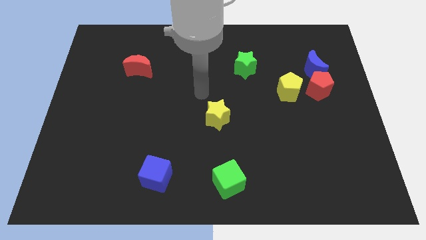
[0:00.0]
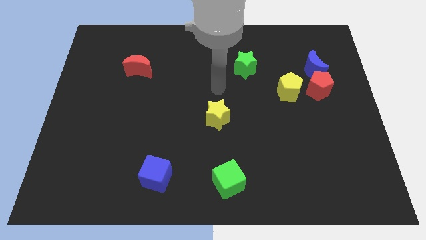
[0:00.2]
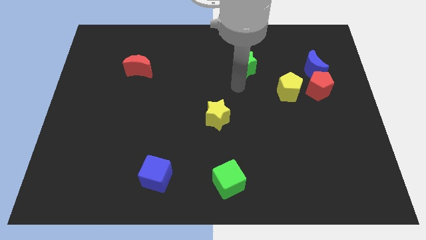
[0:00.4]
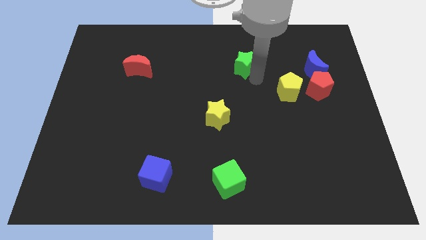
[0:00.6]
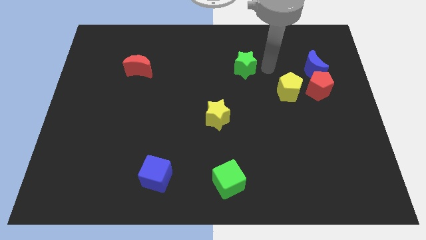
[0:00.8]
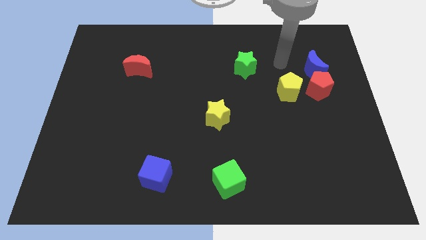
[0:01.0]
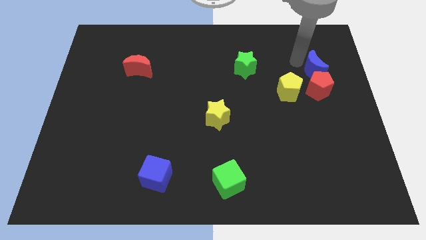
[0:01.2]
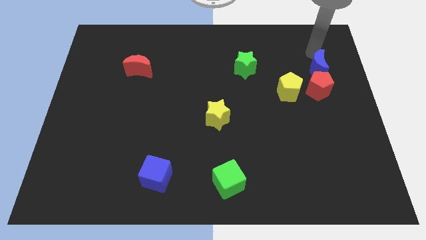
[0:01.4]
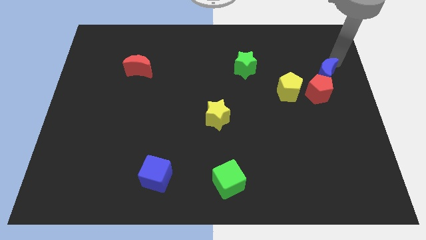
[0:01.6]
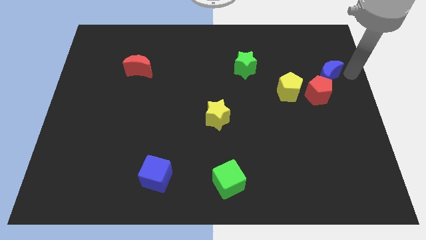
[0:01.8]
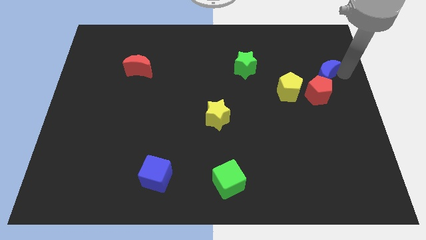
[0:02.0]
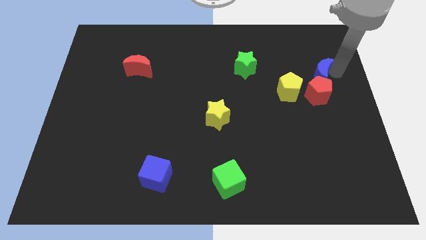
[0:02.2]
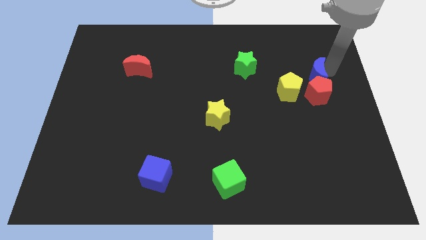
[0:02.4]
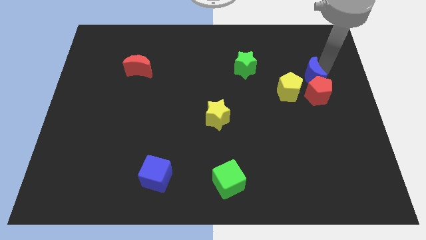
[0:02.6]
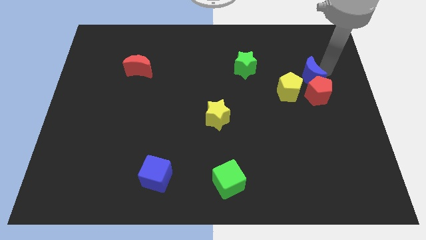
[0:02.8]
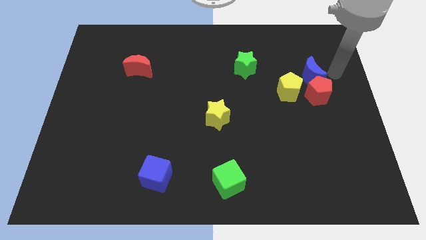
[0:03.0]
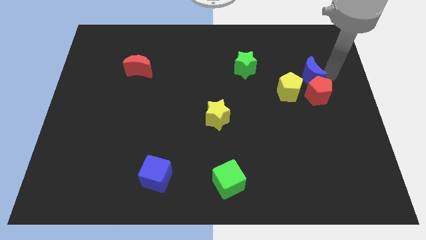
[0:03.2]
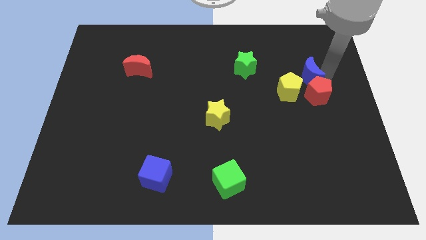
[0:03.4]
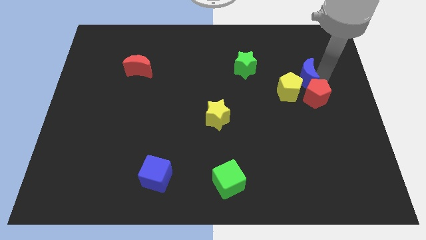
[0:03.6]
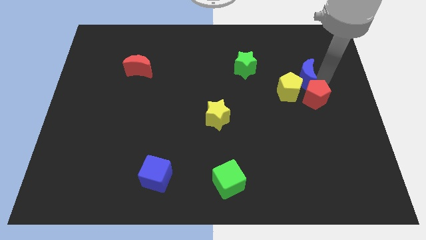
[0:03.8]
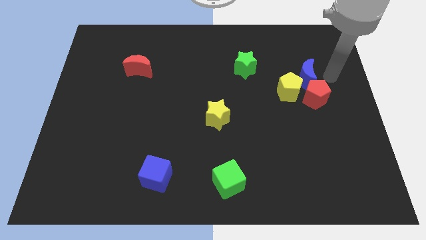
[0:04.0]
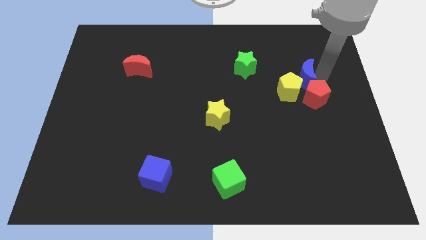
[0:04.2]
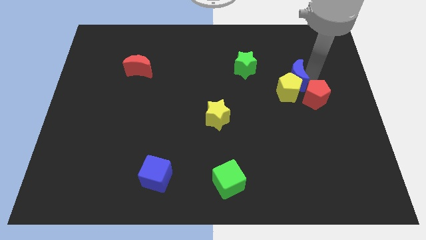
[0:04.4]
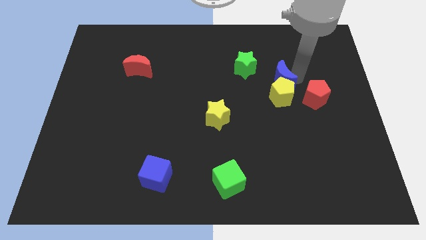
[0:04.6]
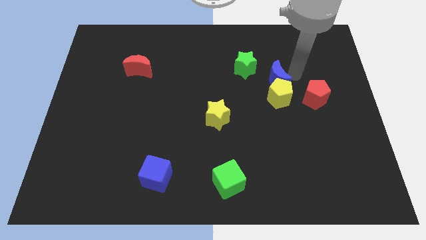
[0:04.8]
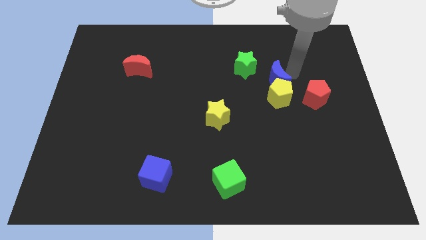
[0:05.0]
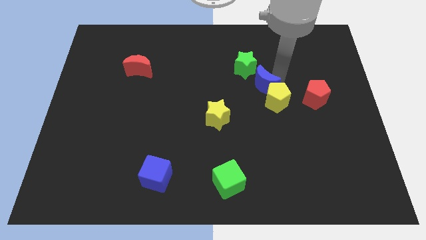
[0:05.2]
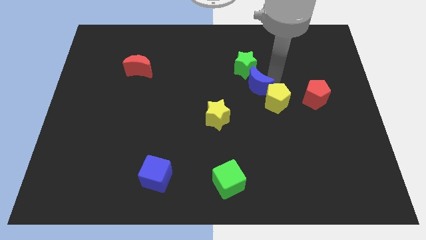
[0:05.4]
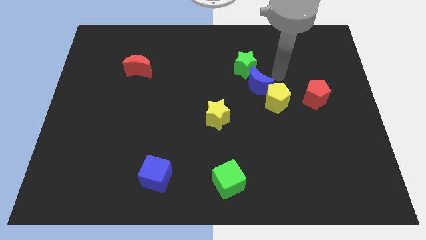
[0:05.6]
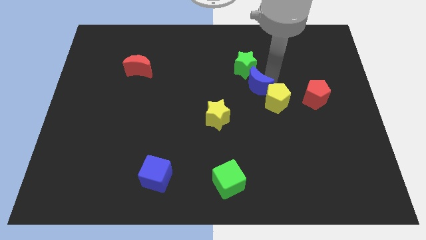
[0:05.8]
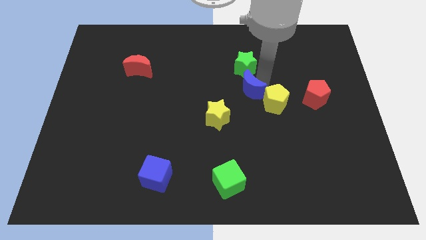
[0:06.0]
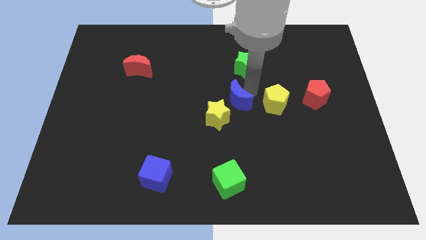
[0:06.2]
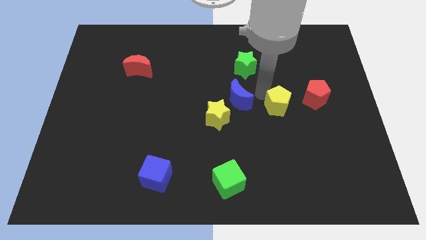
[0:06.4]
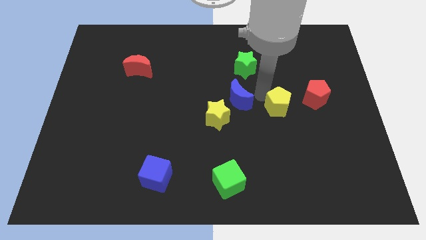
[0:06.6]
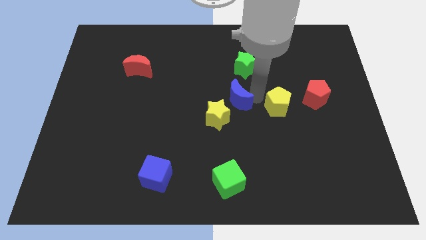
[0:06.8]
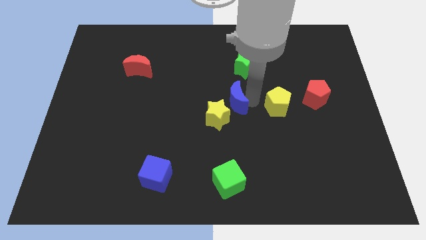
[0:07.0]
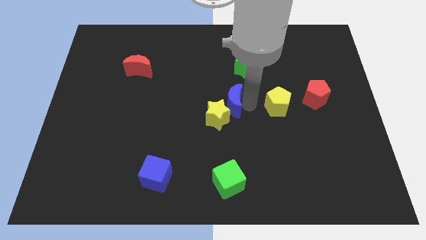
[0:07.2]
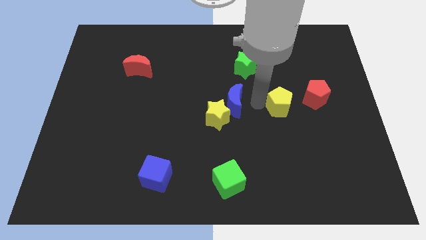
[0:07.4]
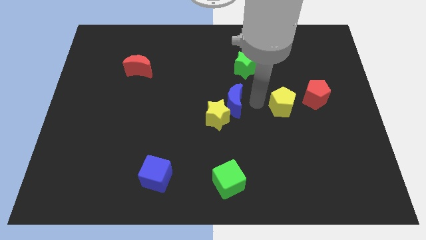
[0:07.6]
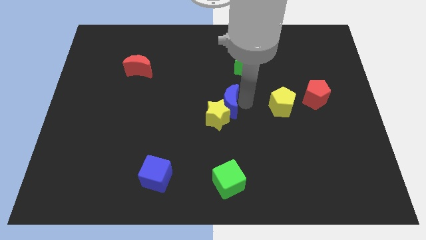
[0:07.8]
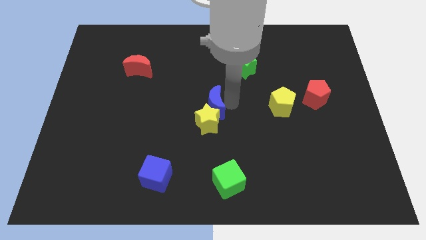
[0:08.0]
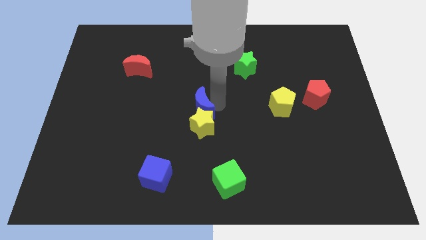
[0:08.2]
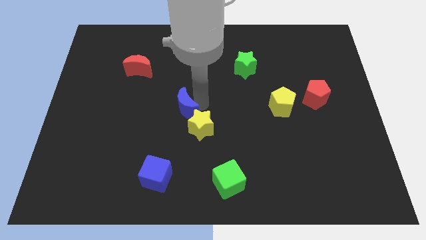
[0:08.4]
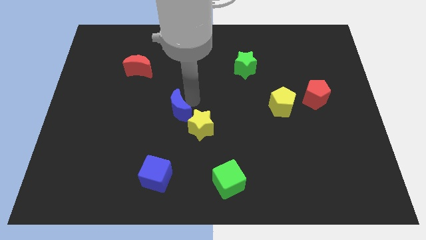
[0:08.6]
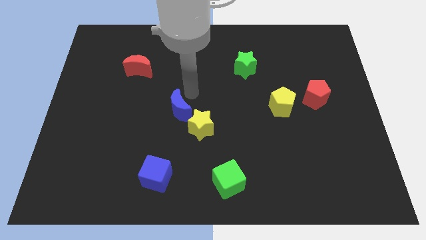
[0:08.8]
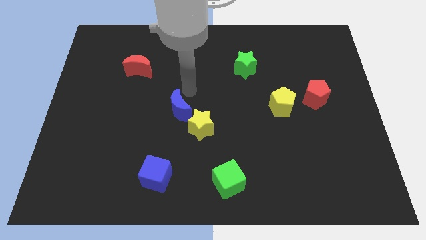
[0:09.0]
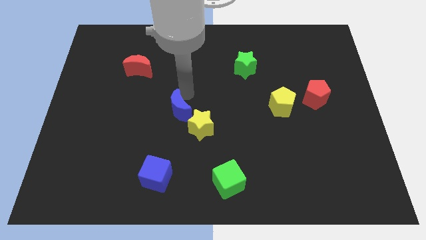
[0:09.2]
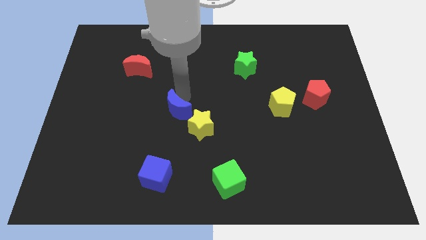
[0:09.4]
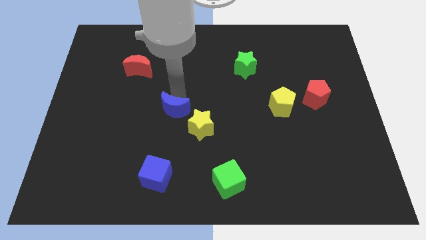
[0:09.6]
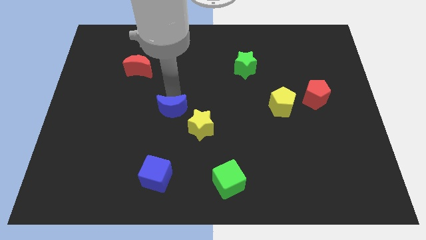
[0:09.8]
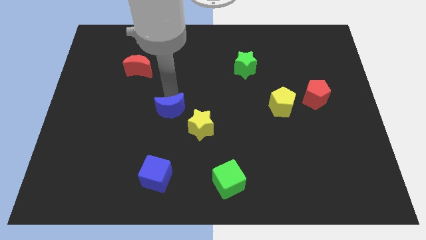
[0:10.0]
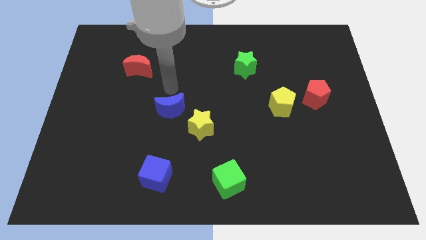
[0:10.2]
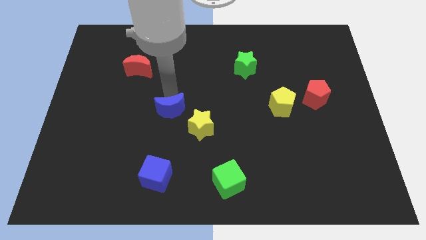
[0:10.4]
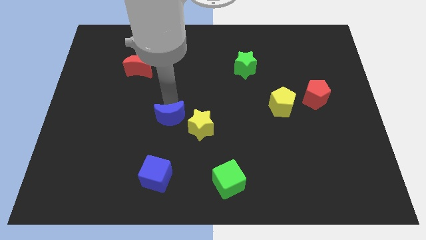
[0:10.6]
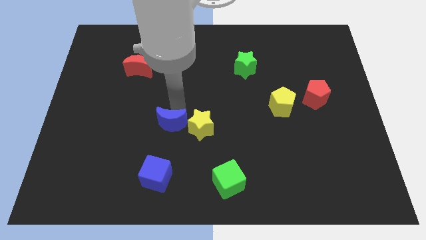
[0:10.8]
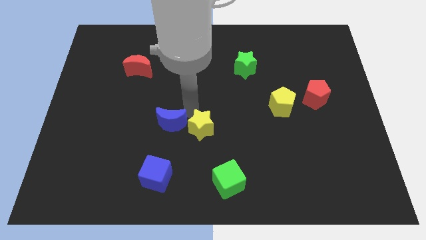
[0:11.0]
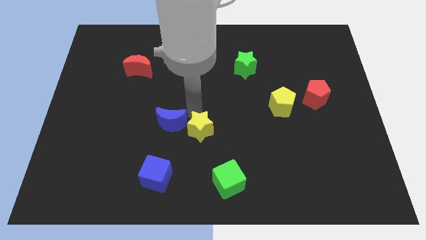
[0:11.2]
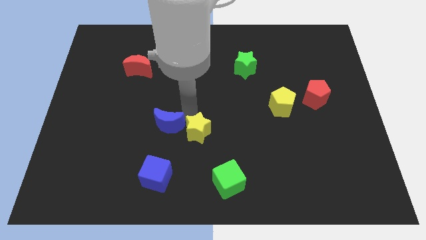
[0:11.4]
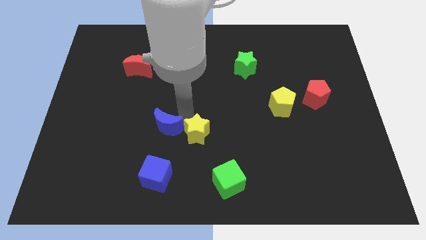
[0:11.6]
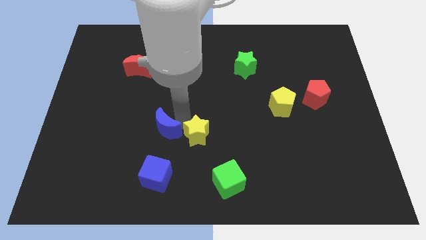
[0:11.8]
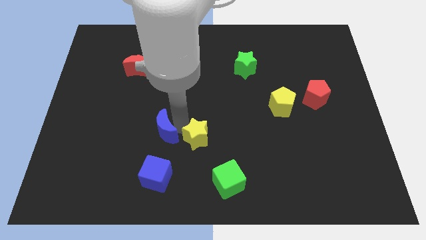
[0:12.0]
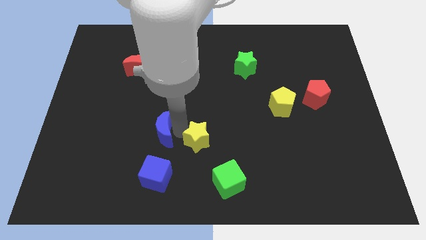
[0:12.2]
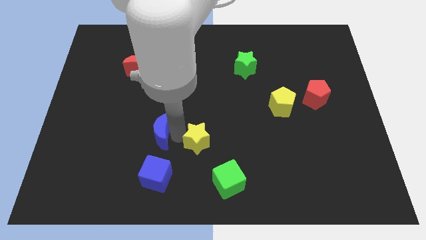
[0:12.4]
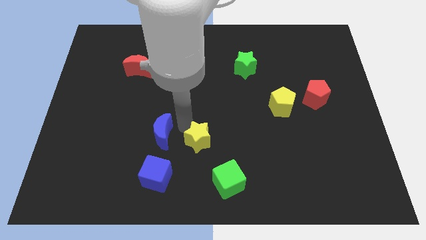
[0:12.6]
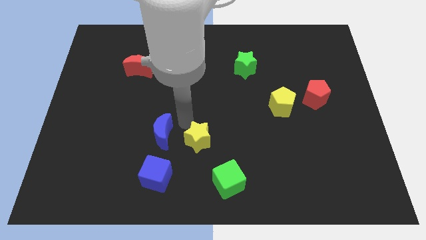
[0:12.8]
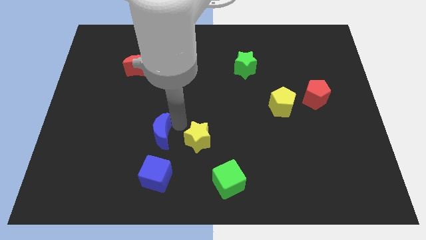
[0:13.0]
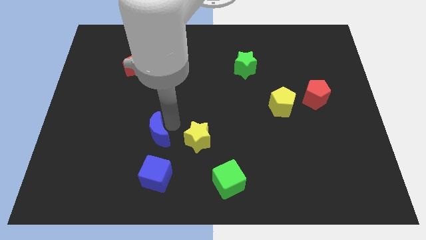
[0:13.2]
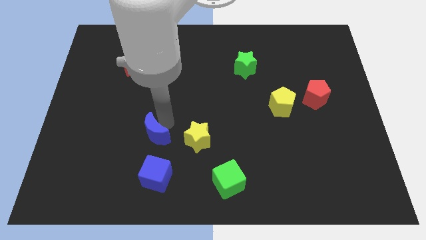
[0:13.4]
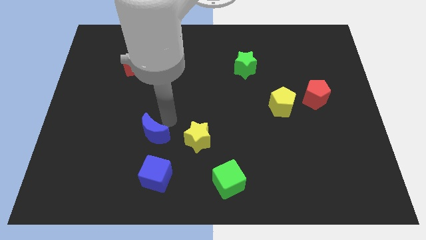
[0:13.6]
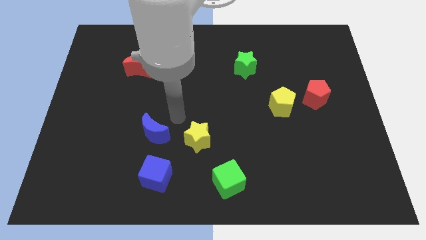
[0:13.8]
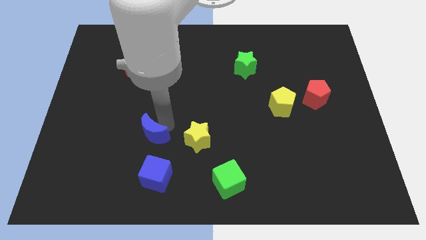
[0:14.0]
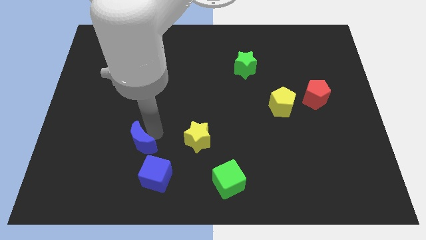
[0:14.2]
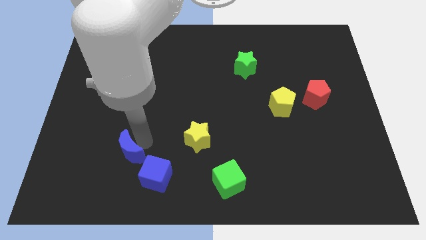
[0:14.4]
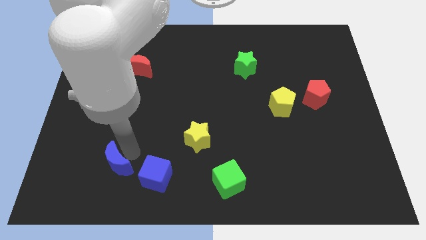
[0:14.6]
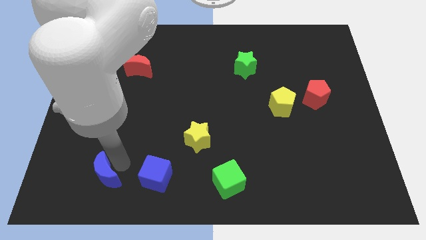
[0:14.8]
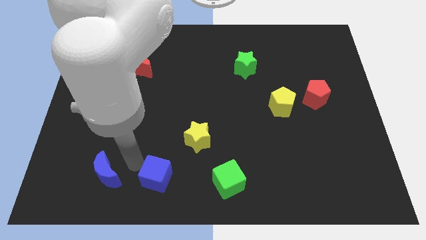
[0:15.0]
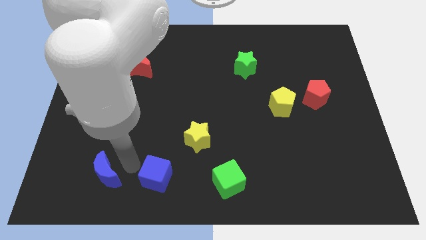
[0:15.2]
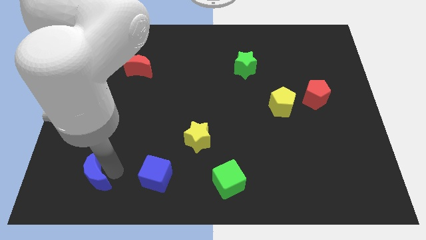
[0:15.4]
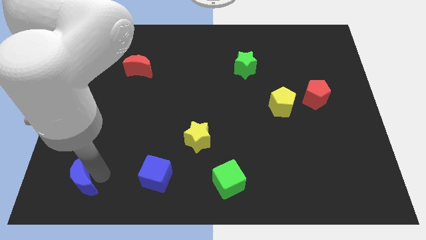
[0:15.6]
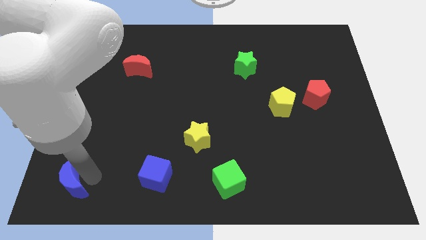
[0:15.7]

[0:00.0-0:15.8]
slide the blue moon to the bottom left corner
